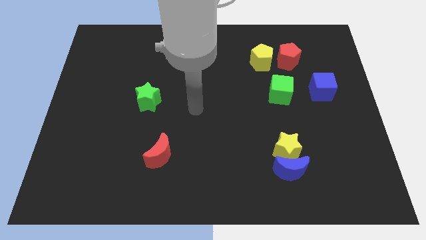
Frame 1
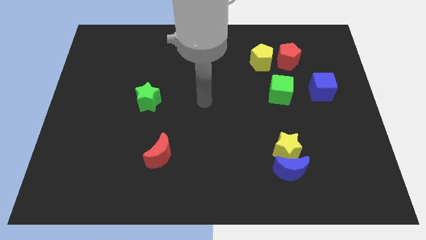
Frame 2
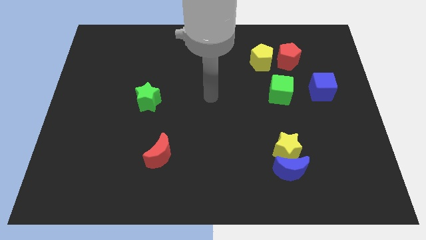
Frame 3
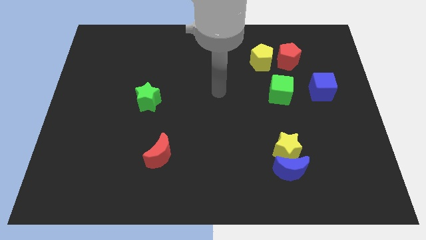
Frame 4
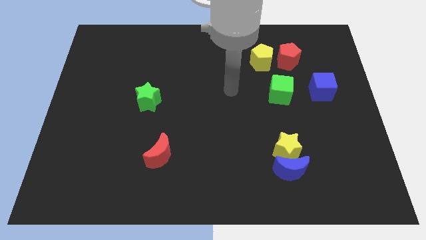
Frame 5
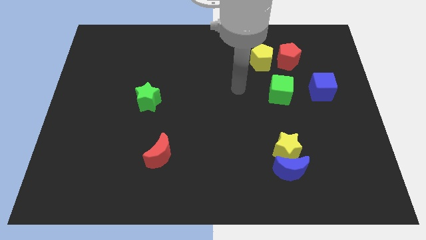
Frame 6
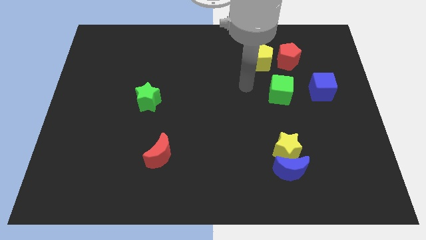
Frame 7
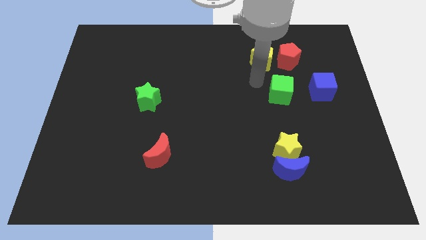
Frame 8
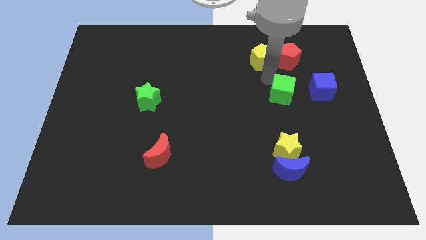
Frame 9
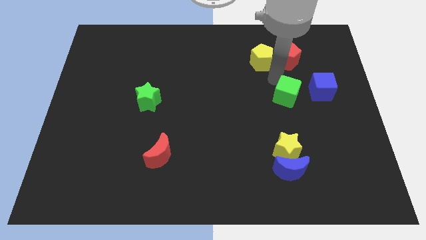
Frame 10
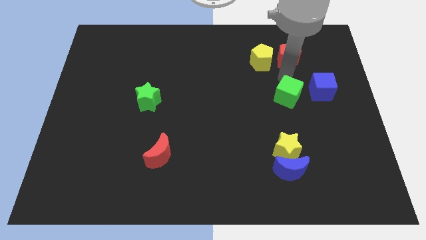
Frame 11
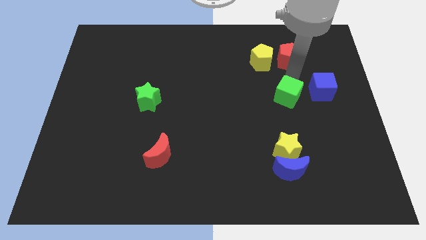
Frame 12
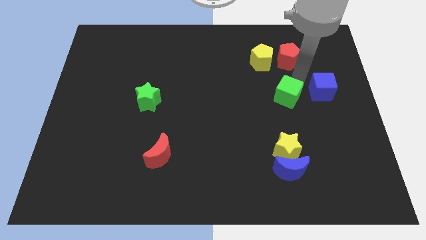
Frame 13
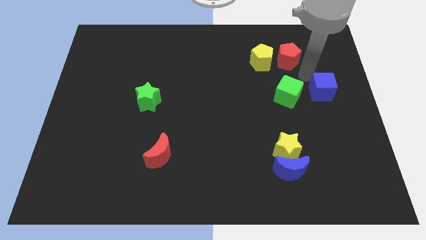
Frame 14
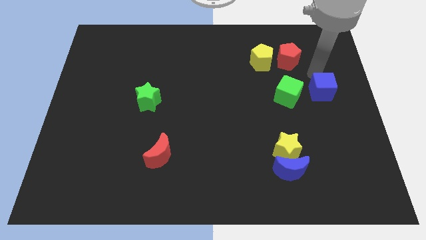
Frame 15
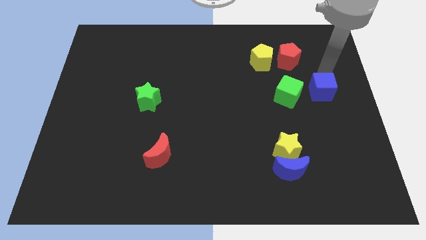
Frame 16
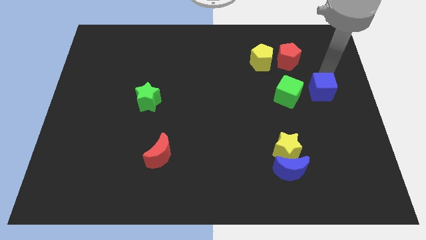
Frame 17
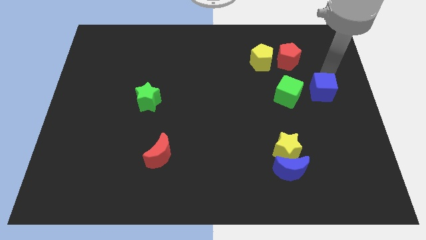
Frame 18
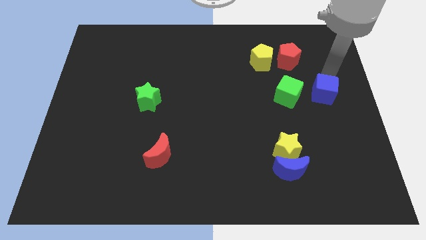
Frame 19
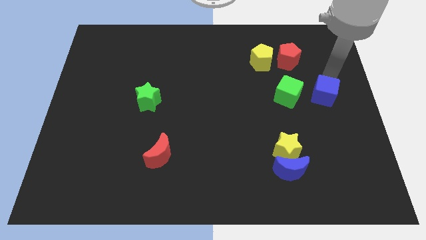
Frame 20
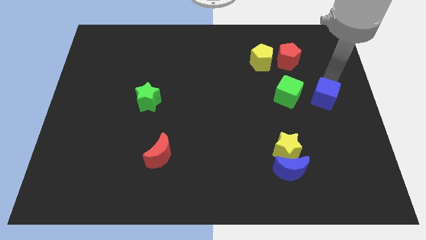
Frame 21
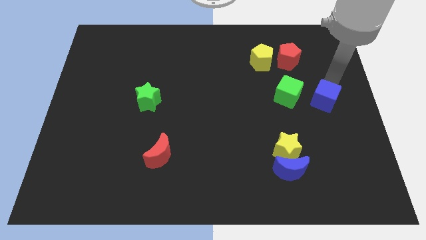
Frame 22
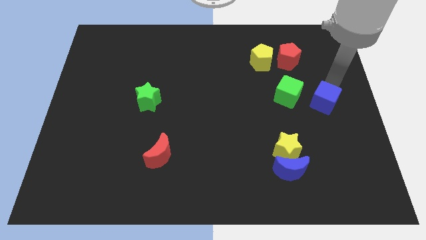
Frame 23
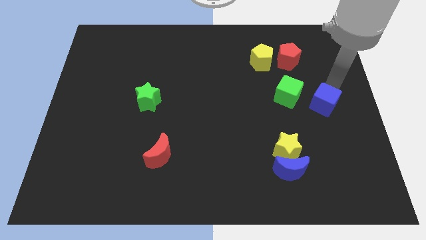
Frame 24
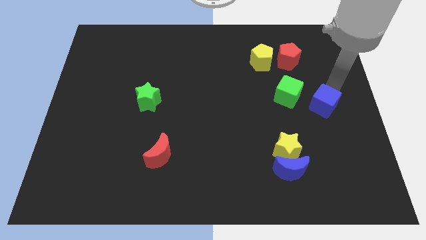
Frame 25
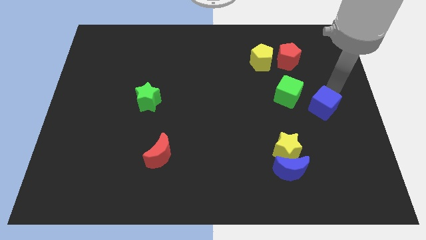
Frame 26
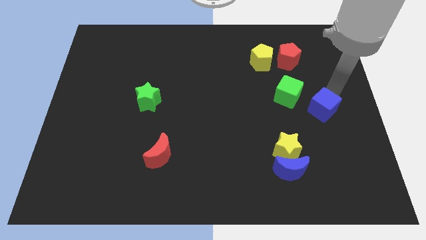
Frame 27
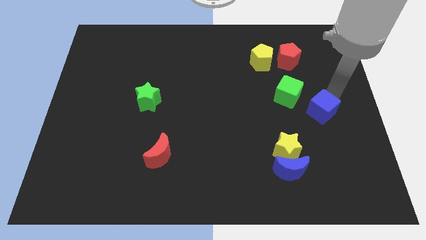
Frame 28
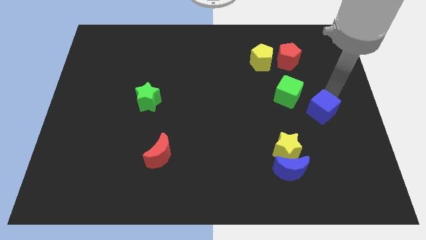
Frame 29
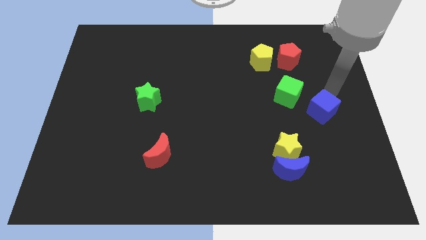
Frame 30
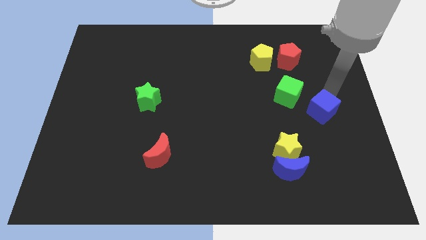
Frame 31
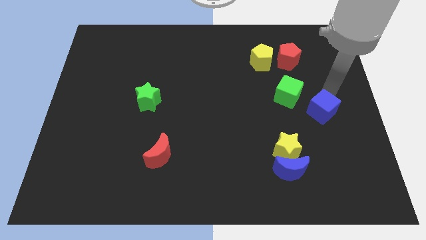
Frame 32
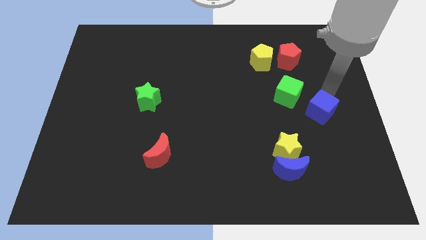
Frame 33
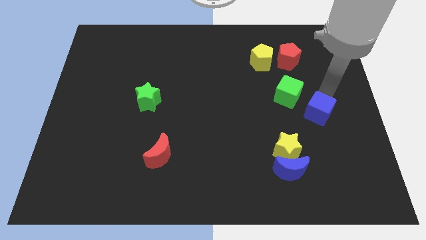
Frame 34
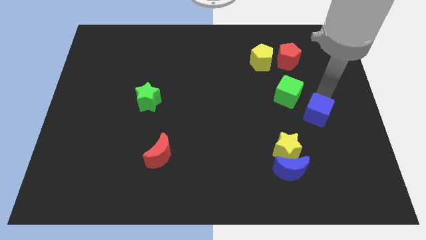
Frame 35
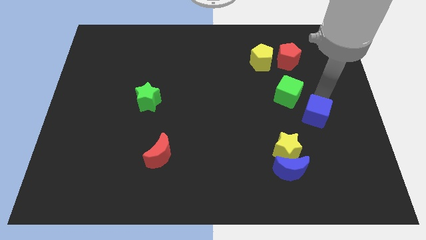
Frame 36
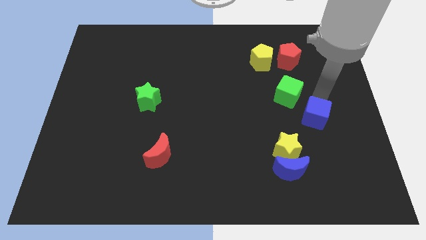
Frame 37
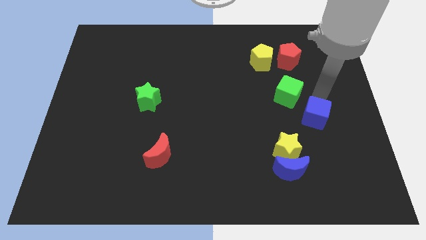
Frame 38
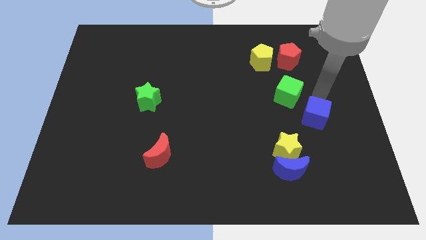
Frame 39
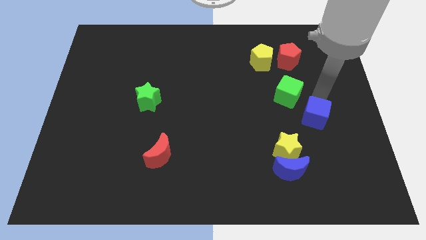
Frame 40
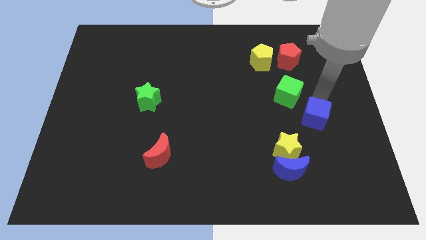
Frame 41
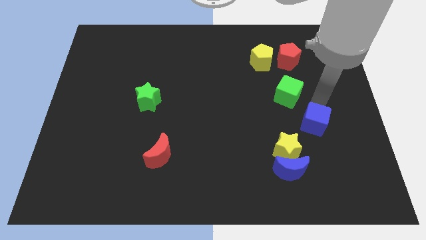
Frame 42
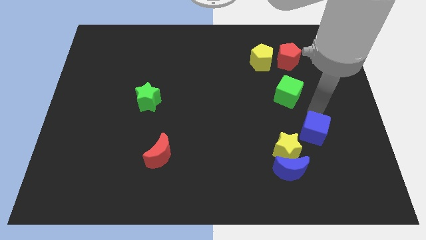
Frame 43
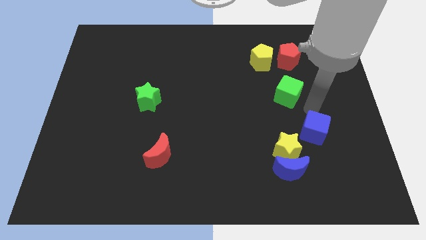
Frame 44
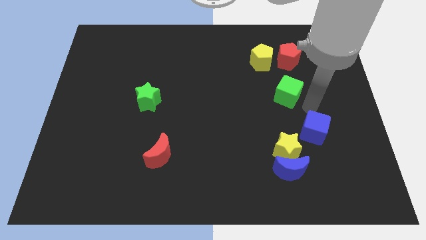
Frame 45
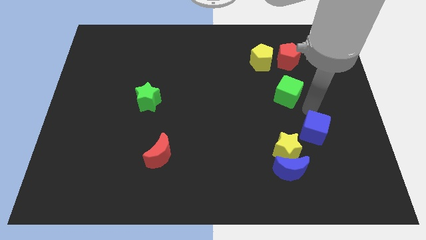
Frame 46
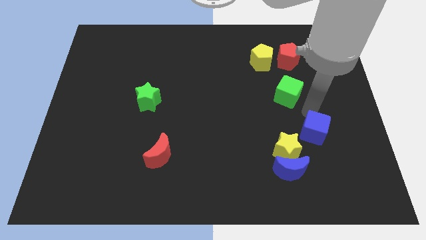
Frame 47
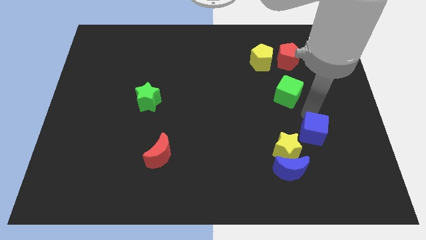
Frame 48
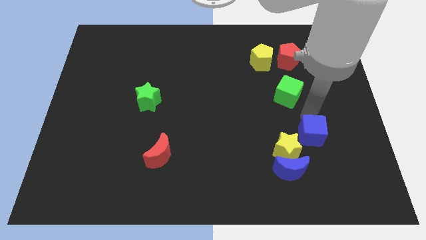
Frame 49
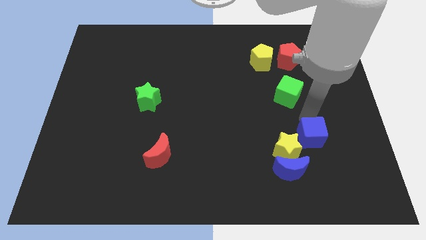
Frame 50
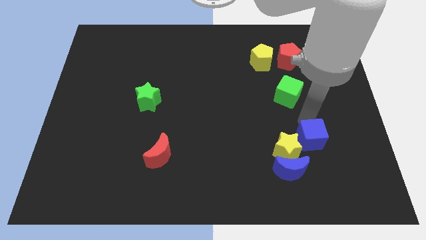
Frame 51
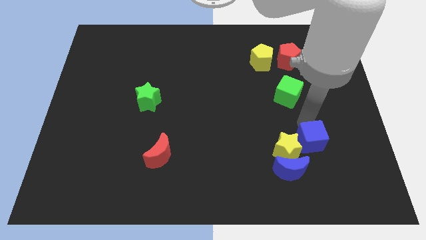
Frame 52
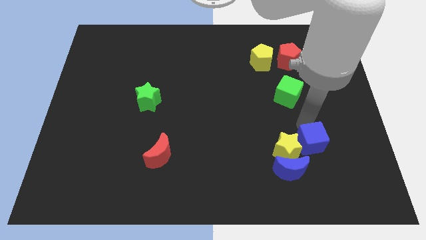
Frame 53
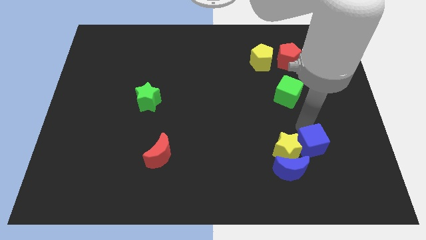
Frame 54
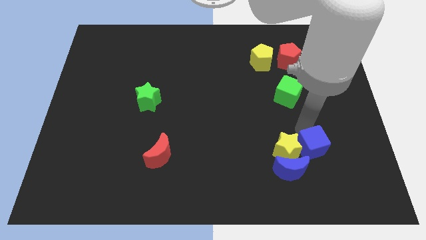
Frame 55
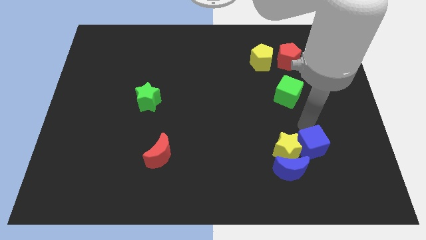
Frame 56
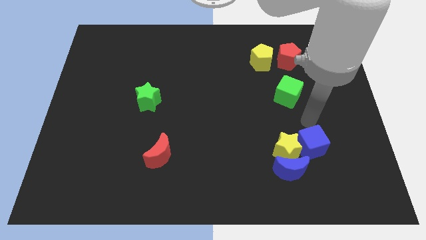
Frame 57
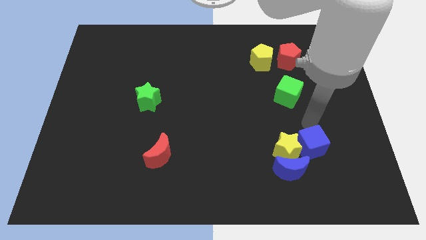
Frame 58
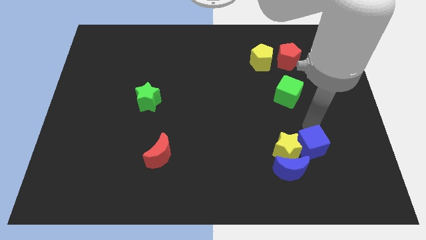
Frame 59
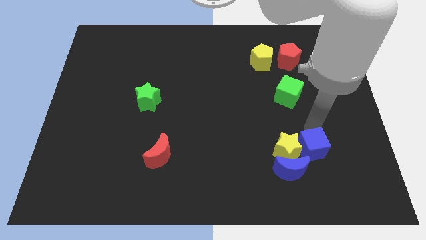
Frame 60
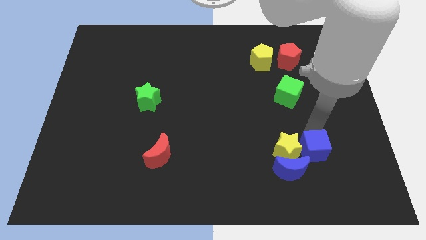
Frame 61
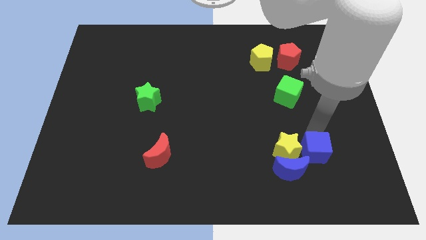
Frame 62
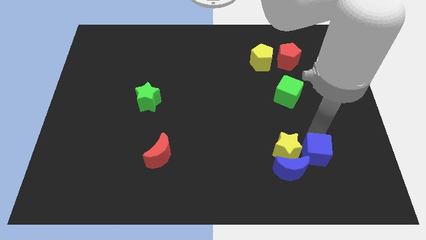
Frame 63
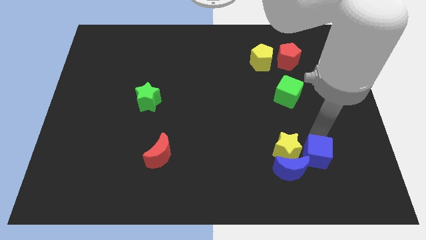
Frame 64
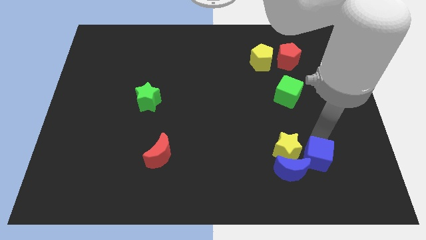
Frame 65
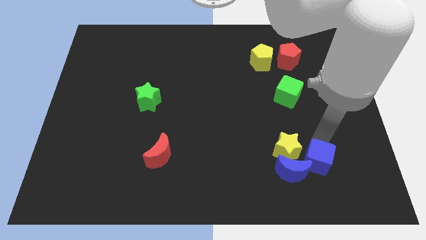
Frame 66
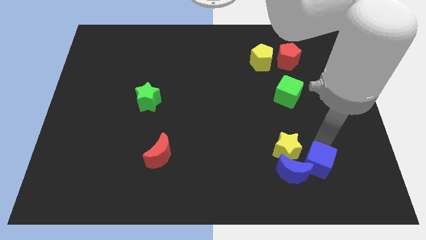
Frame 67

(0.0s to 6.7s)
put the blue cube towards the blue moon
